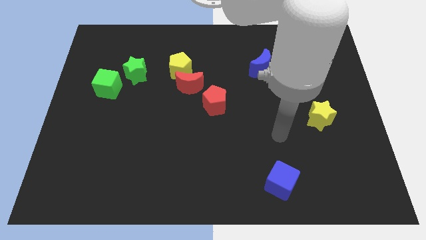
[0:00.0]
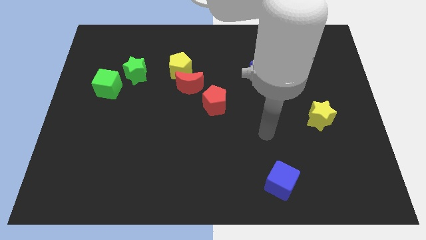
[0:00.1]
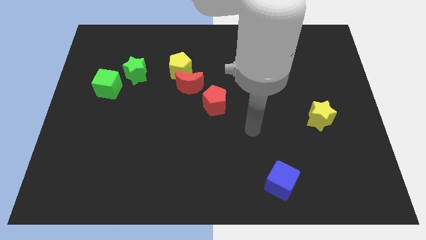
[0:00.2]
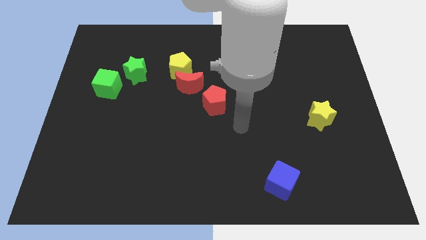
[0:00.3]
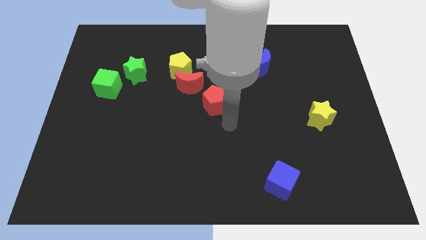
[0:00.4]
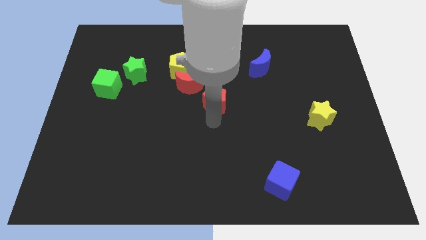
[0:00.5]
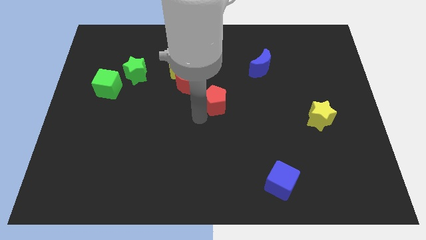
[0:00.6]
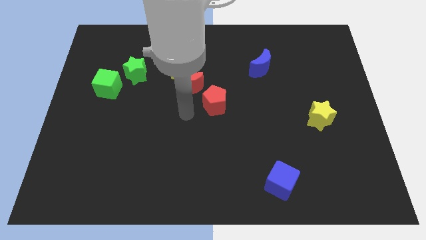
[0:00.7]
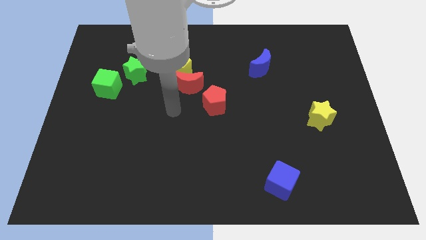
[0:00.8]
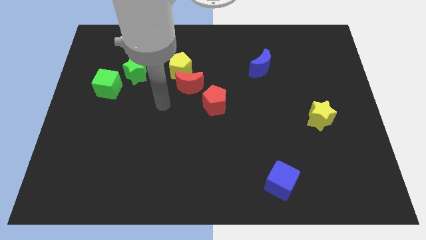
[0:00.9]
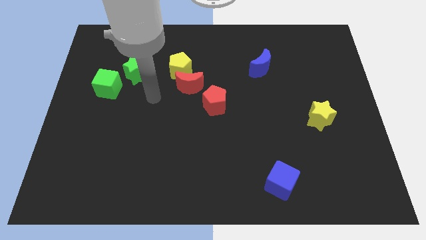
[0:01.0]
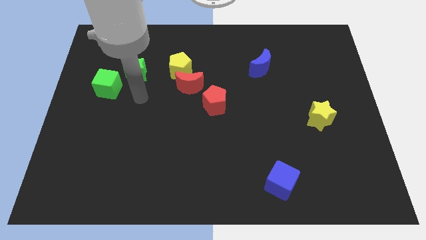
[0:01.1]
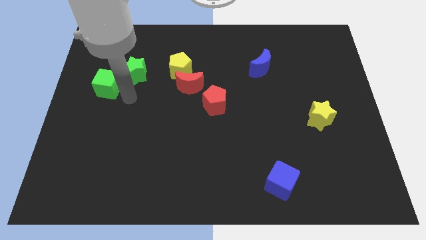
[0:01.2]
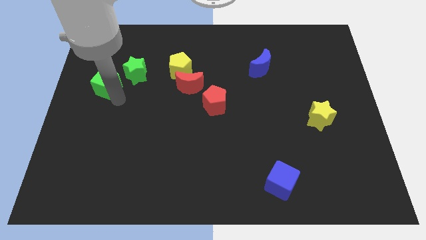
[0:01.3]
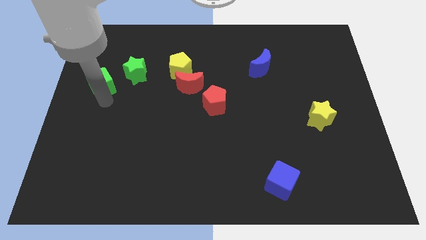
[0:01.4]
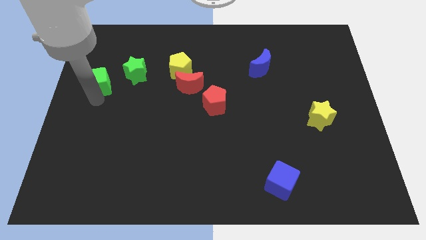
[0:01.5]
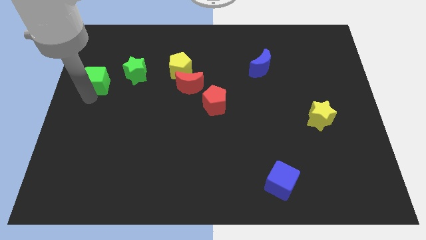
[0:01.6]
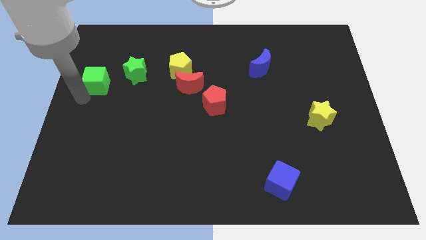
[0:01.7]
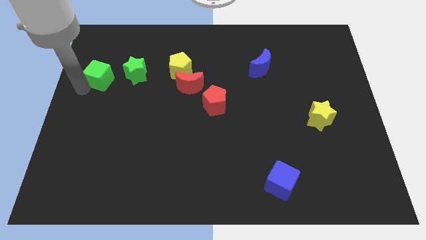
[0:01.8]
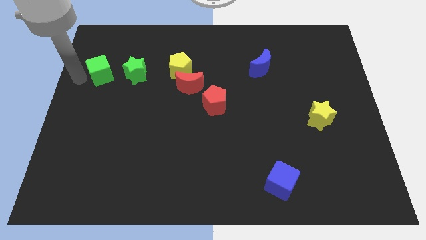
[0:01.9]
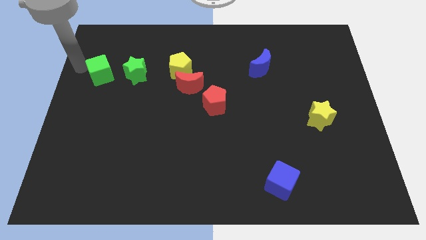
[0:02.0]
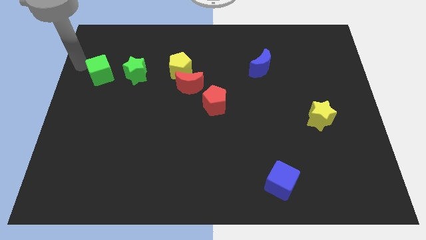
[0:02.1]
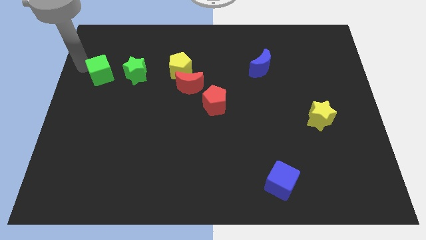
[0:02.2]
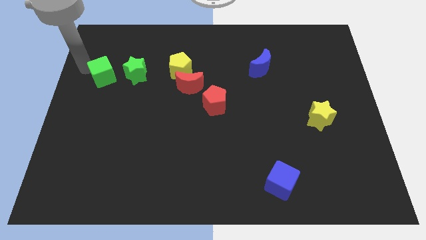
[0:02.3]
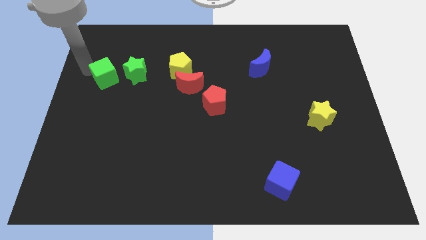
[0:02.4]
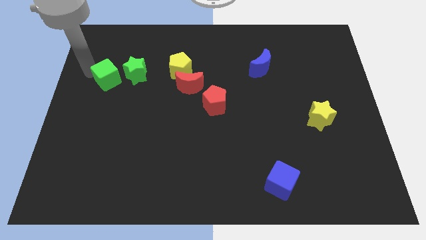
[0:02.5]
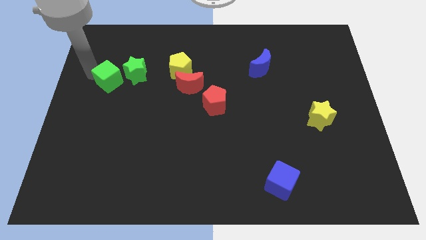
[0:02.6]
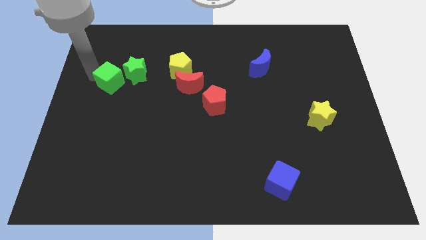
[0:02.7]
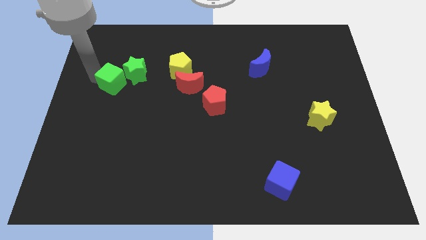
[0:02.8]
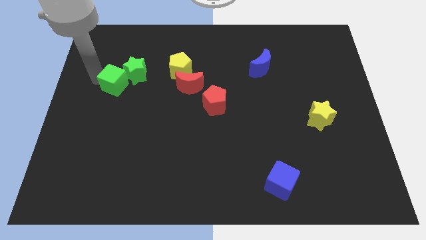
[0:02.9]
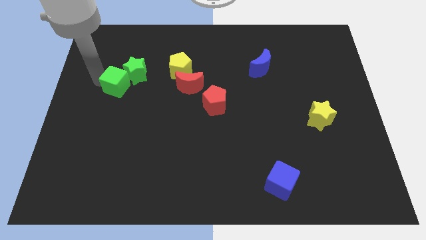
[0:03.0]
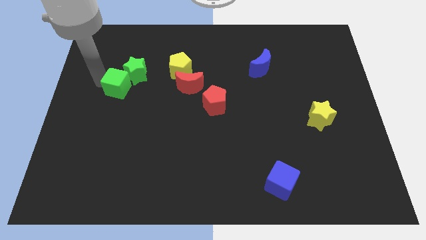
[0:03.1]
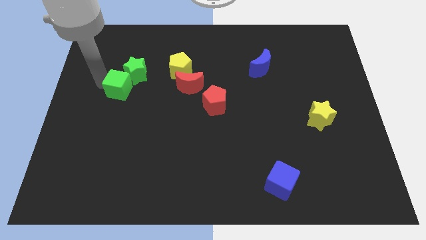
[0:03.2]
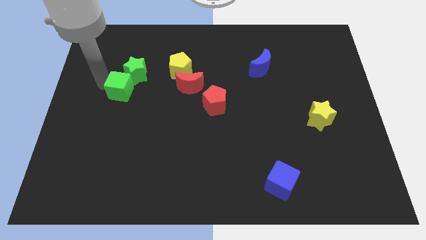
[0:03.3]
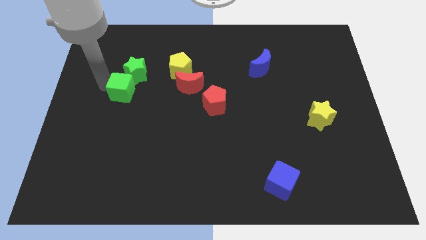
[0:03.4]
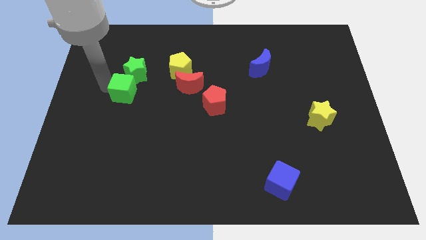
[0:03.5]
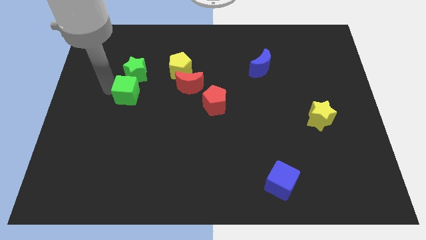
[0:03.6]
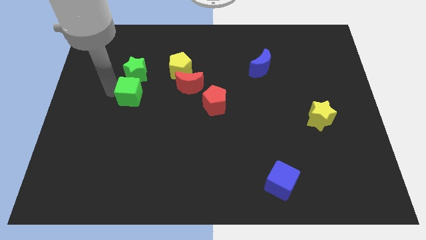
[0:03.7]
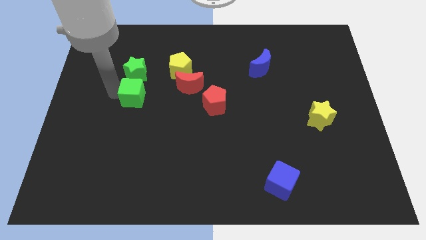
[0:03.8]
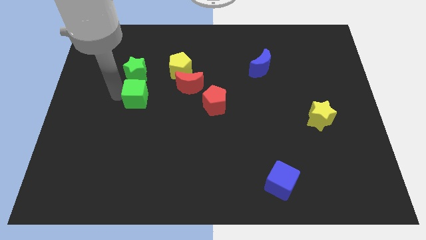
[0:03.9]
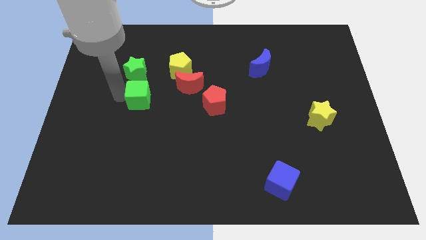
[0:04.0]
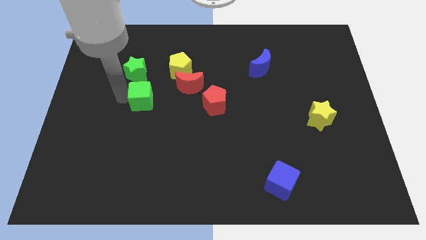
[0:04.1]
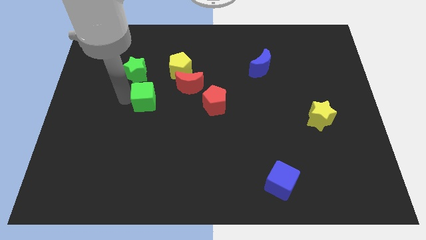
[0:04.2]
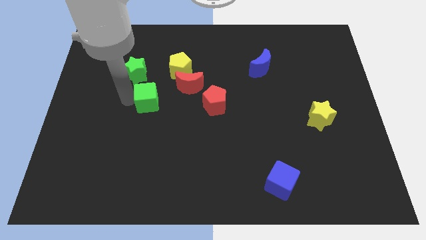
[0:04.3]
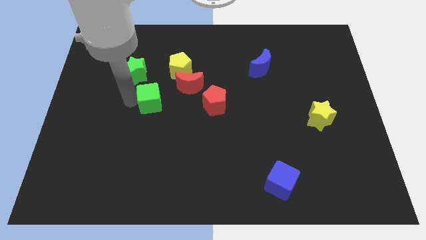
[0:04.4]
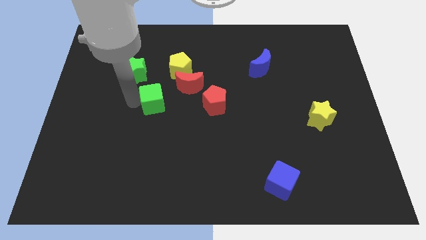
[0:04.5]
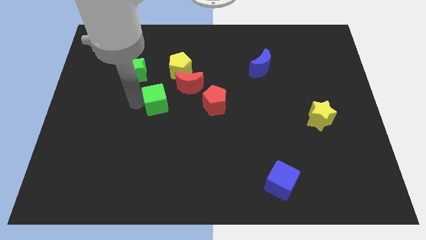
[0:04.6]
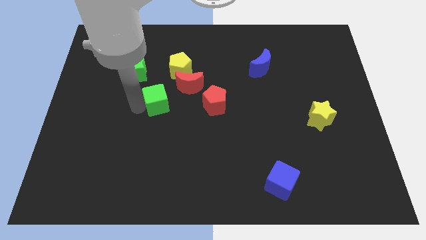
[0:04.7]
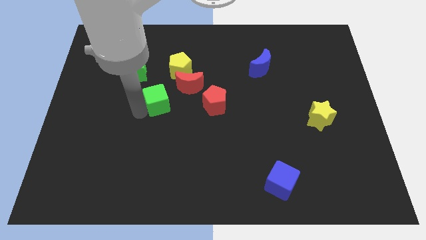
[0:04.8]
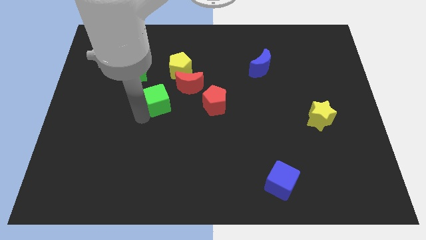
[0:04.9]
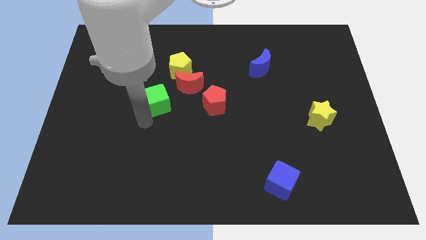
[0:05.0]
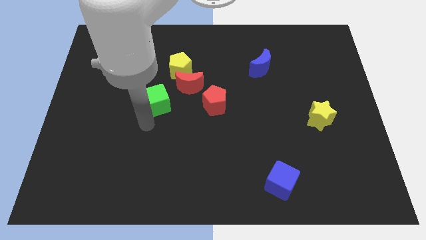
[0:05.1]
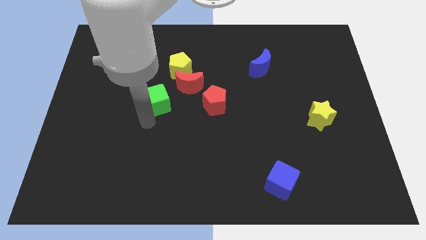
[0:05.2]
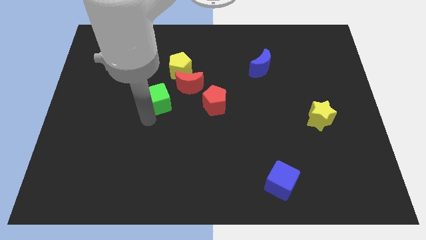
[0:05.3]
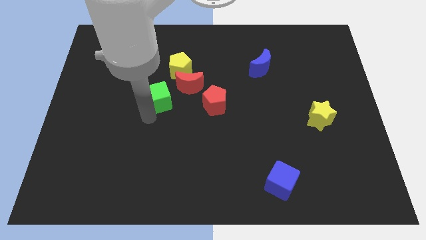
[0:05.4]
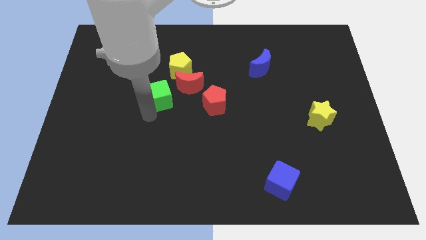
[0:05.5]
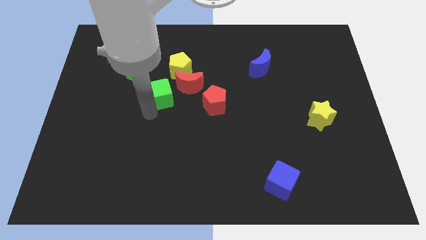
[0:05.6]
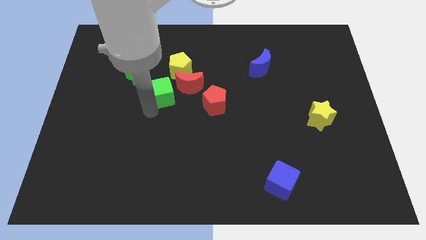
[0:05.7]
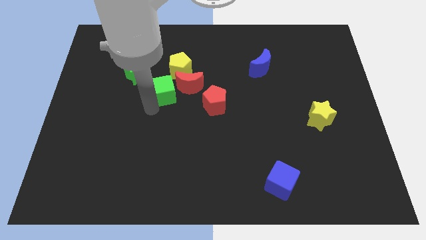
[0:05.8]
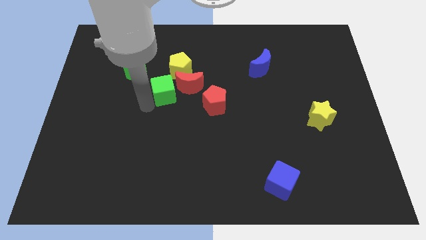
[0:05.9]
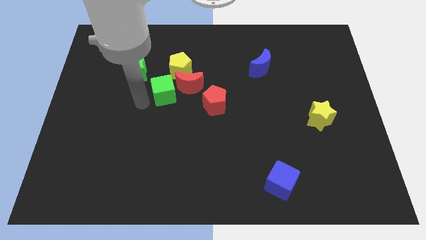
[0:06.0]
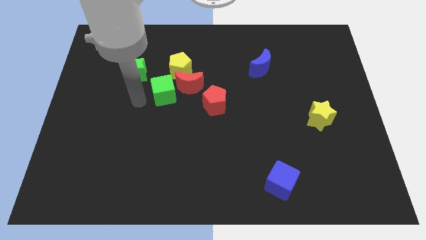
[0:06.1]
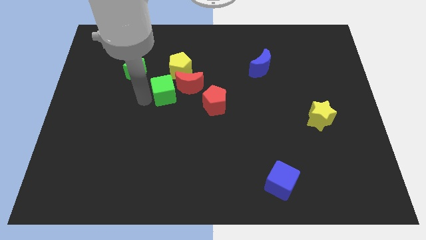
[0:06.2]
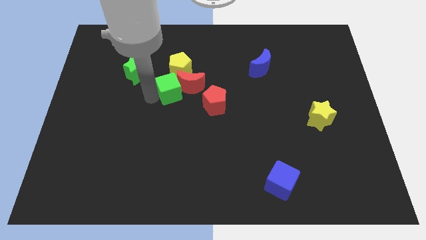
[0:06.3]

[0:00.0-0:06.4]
put the green cube close to the red moon

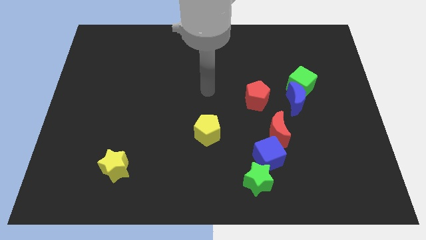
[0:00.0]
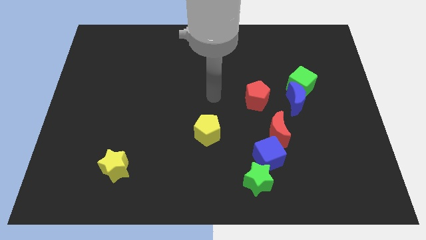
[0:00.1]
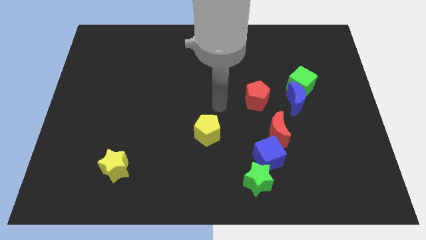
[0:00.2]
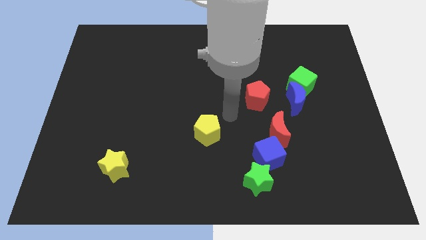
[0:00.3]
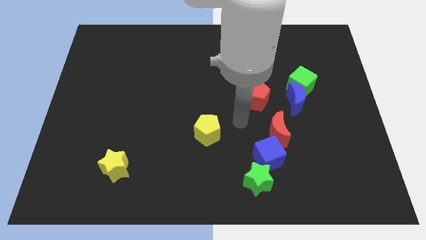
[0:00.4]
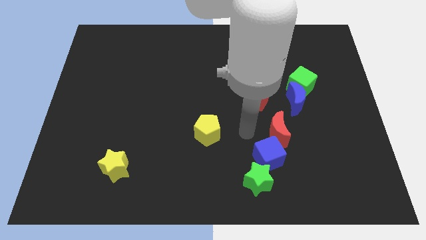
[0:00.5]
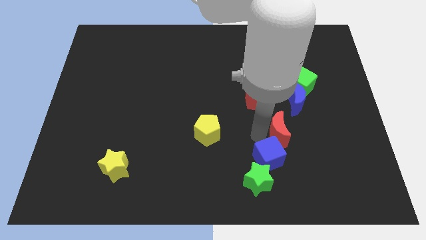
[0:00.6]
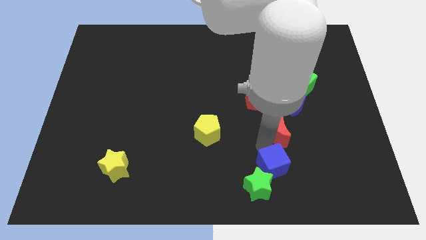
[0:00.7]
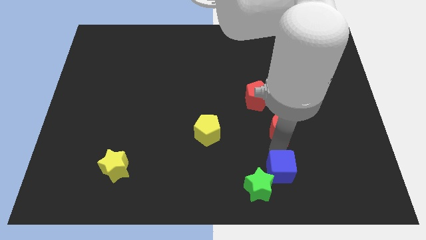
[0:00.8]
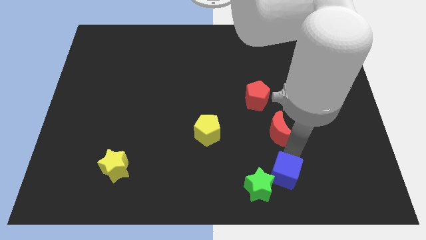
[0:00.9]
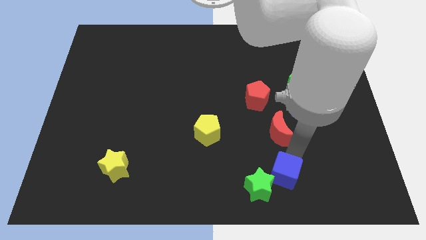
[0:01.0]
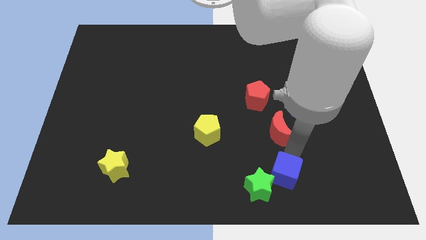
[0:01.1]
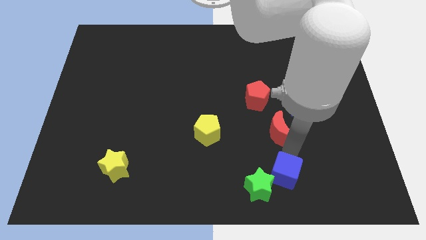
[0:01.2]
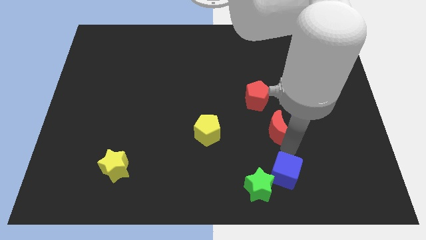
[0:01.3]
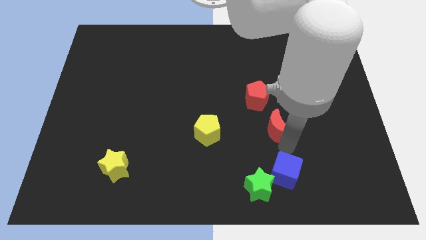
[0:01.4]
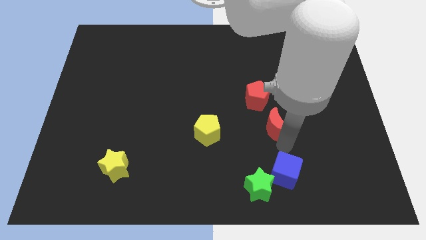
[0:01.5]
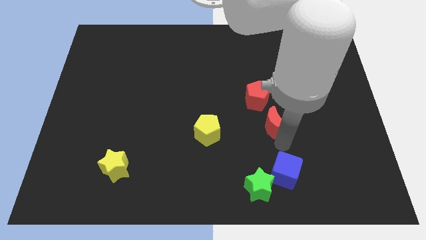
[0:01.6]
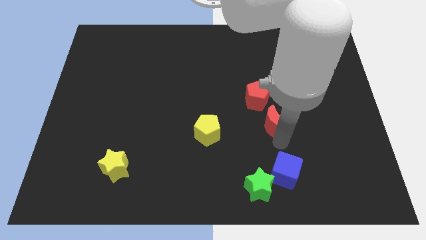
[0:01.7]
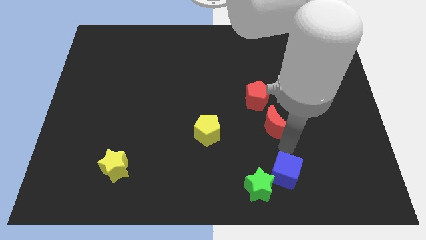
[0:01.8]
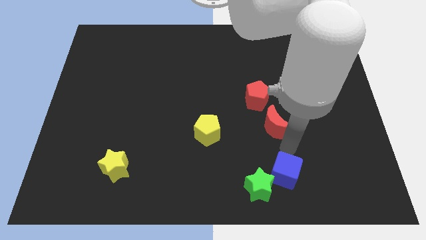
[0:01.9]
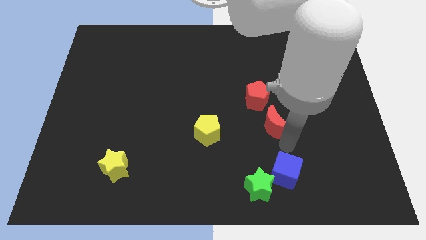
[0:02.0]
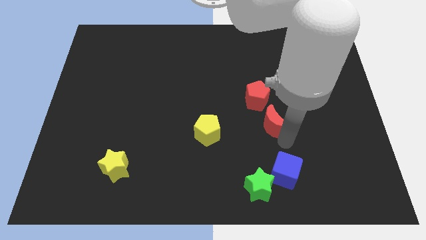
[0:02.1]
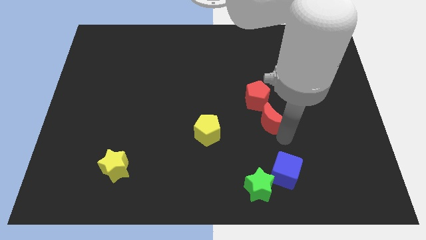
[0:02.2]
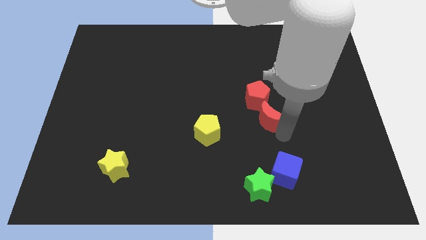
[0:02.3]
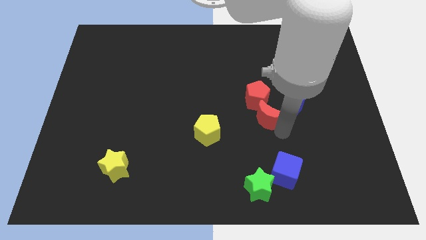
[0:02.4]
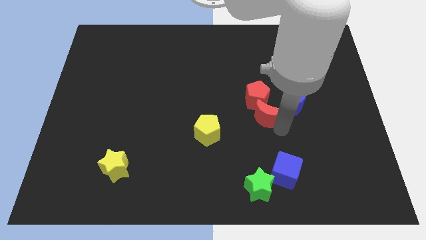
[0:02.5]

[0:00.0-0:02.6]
slide the red moon next to the red pentagon
